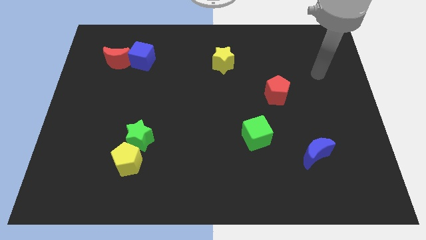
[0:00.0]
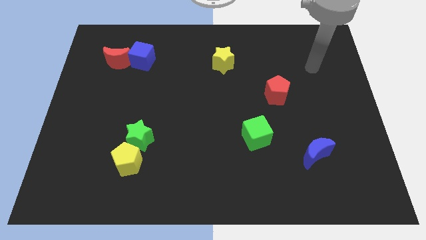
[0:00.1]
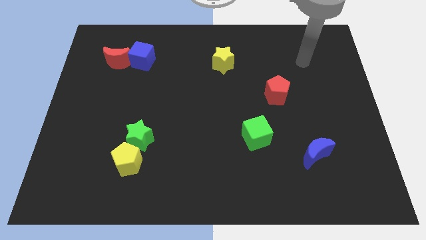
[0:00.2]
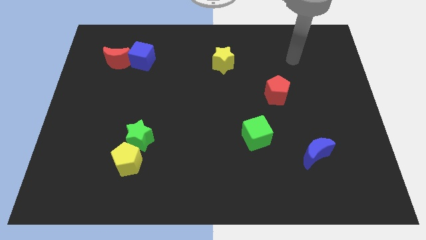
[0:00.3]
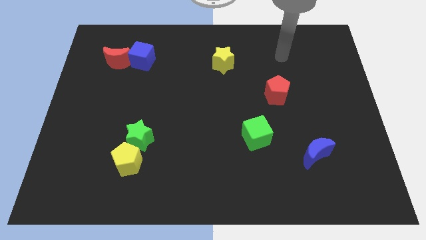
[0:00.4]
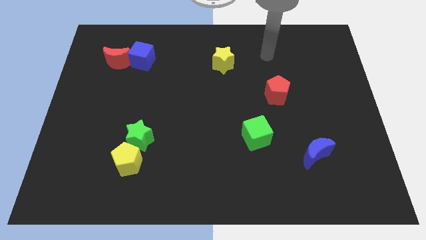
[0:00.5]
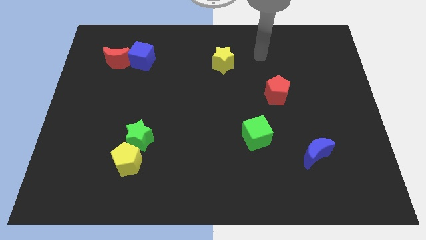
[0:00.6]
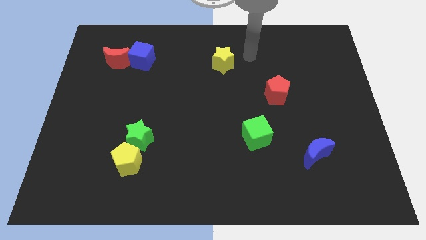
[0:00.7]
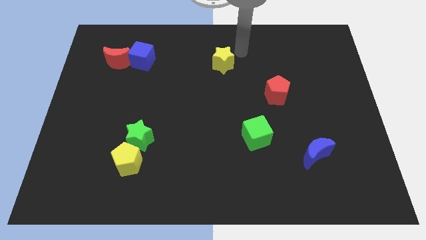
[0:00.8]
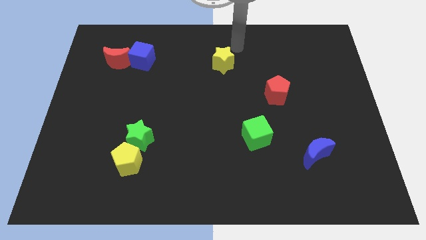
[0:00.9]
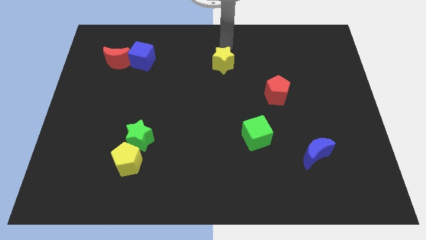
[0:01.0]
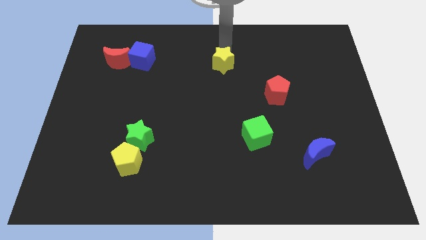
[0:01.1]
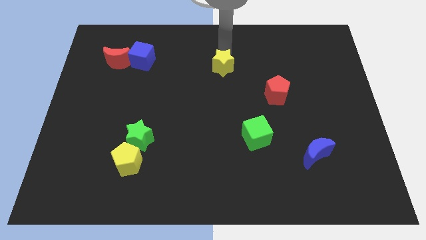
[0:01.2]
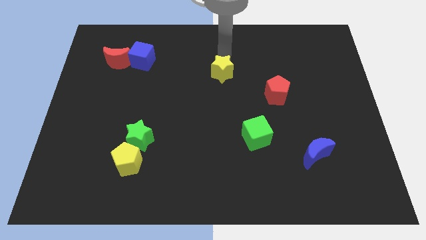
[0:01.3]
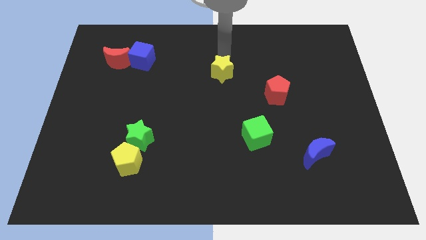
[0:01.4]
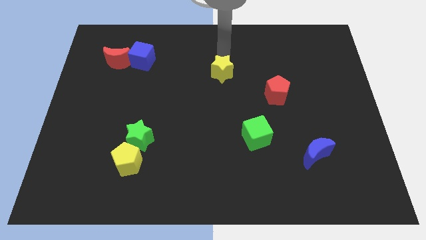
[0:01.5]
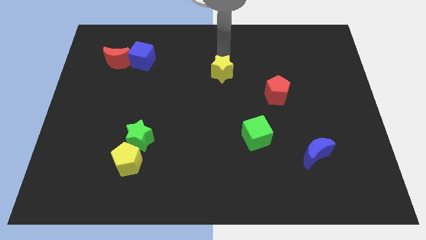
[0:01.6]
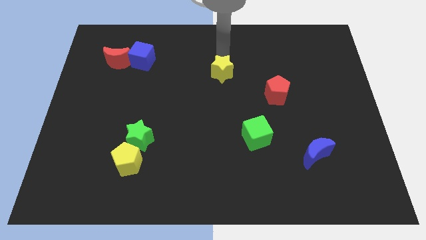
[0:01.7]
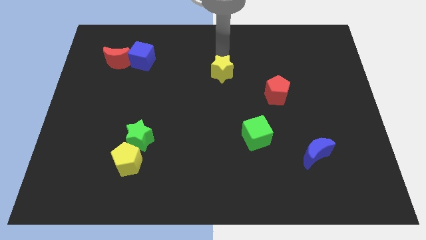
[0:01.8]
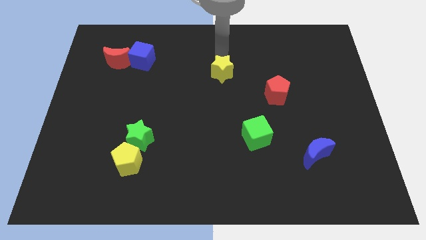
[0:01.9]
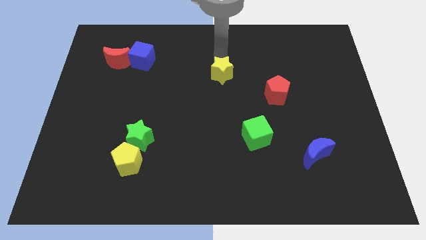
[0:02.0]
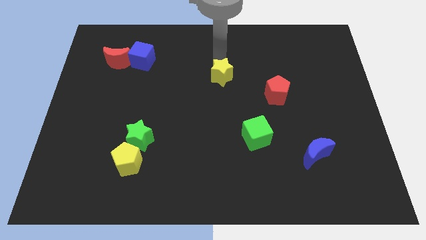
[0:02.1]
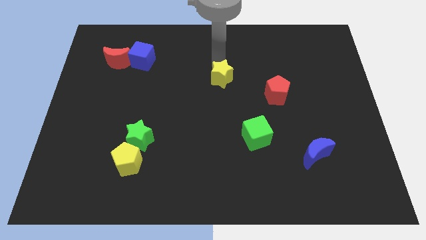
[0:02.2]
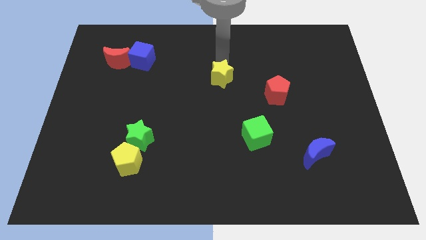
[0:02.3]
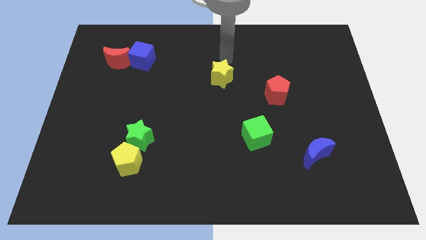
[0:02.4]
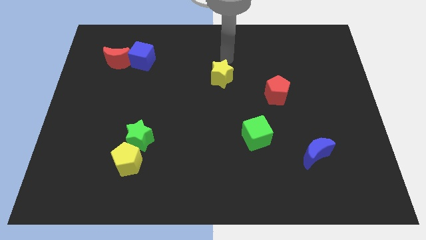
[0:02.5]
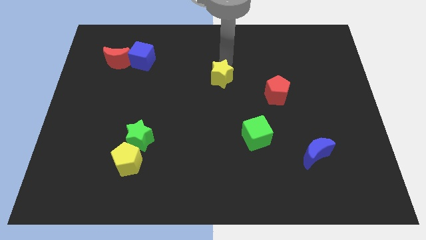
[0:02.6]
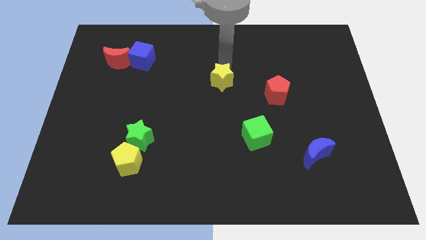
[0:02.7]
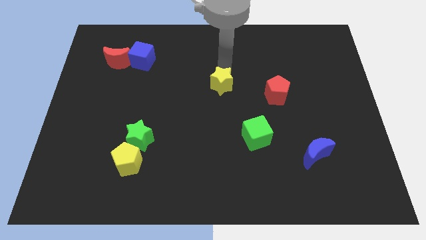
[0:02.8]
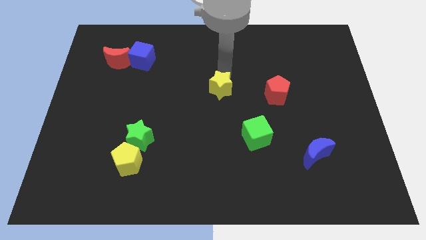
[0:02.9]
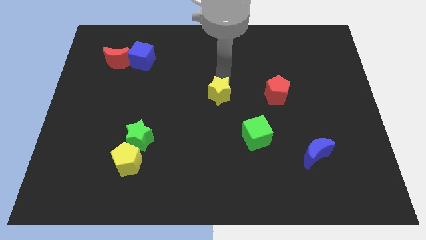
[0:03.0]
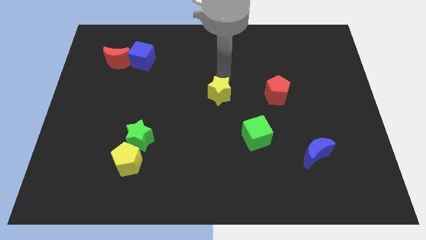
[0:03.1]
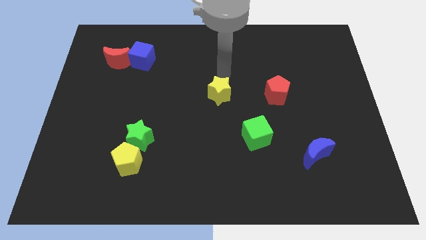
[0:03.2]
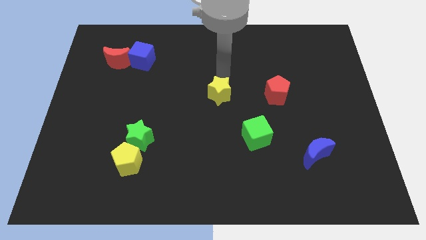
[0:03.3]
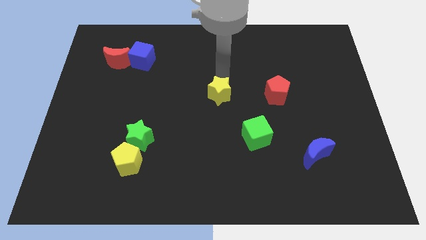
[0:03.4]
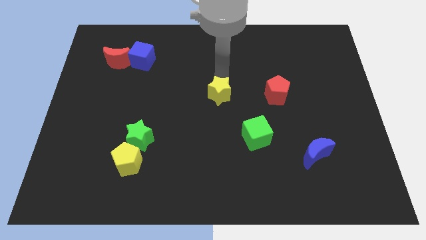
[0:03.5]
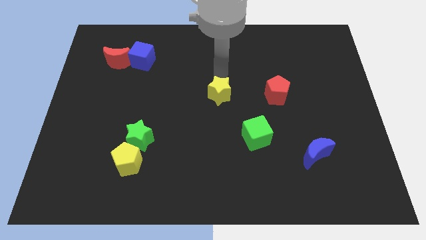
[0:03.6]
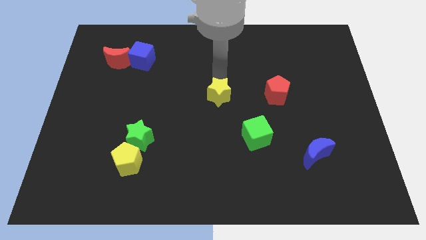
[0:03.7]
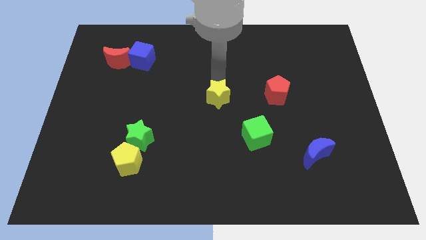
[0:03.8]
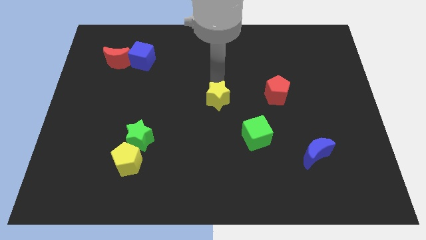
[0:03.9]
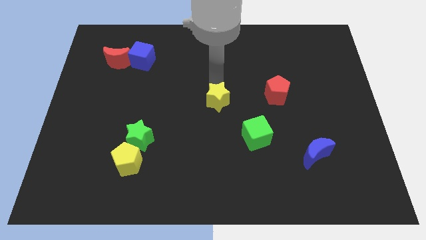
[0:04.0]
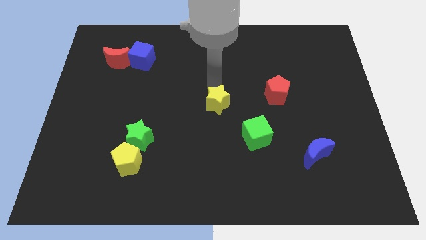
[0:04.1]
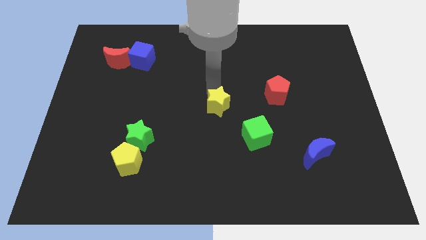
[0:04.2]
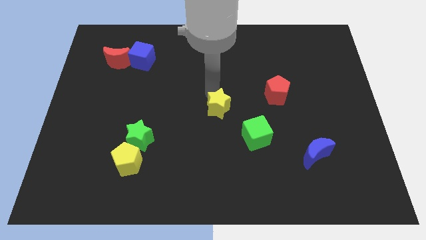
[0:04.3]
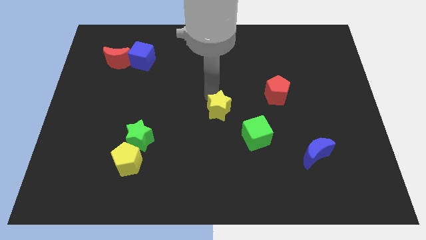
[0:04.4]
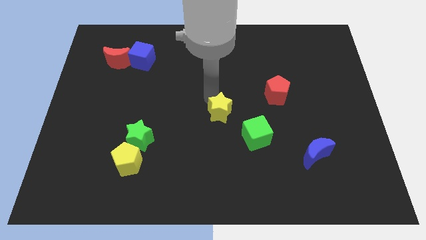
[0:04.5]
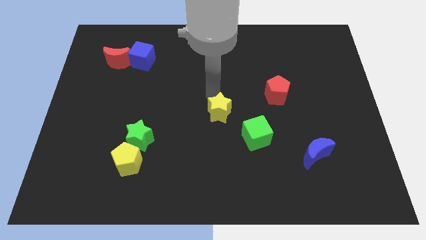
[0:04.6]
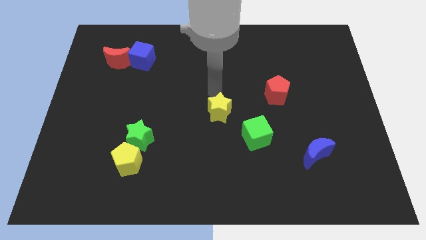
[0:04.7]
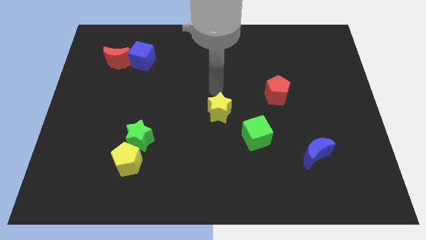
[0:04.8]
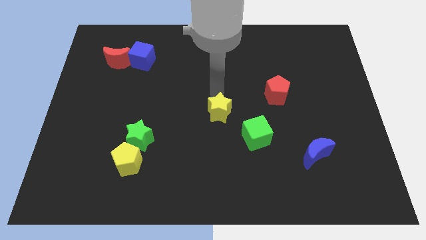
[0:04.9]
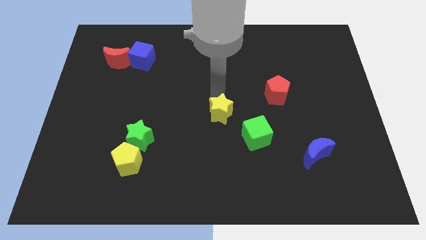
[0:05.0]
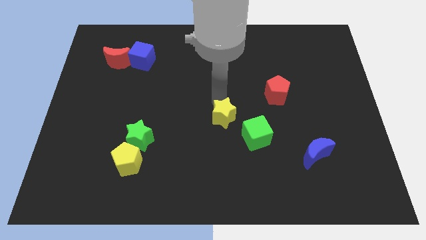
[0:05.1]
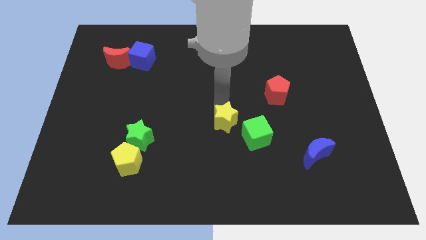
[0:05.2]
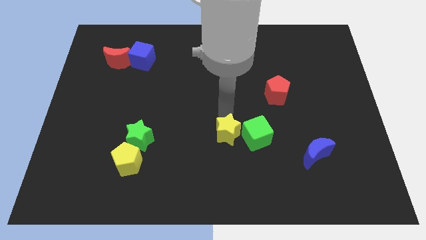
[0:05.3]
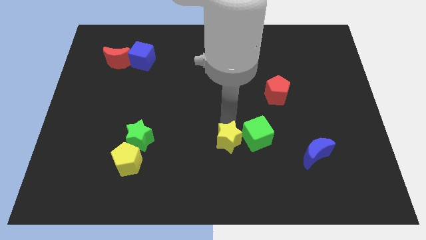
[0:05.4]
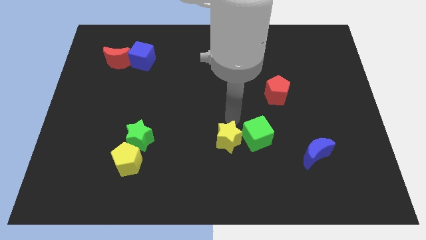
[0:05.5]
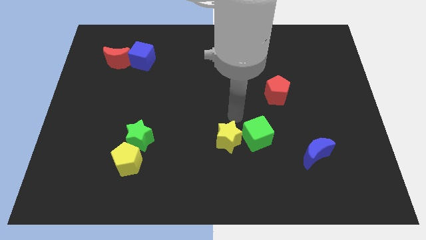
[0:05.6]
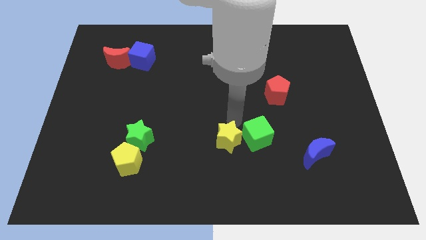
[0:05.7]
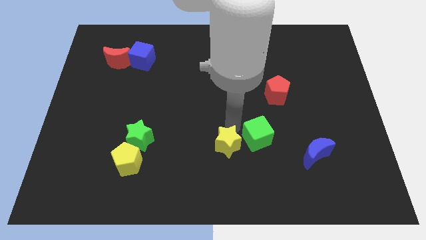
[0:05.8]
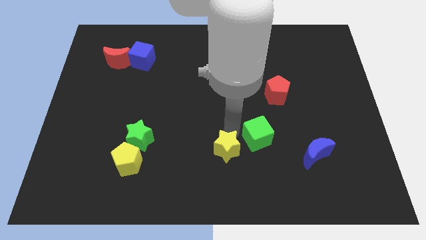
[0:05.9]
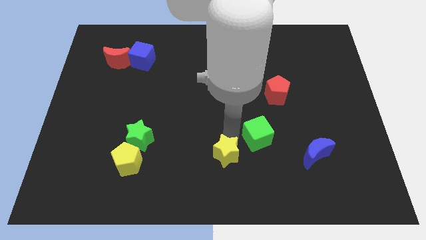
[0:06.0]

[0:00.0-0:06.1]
slide the yellow star to the bottom
